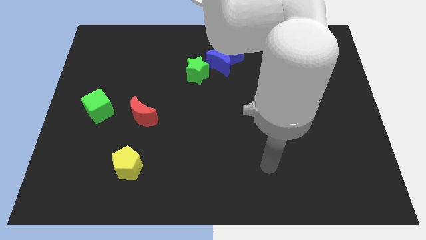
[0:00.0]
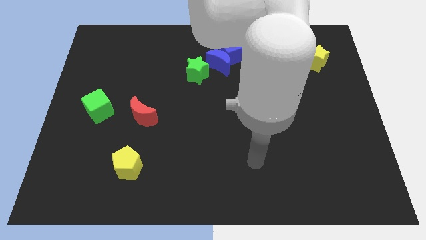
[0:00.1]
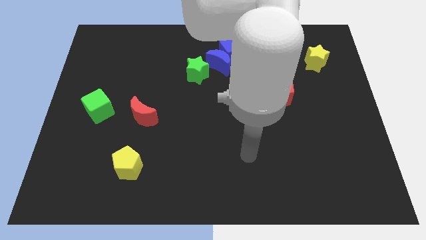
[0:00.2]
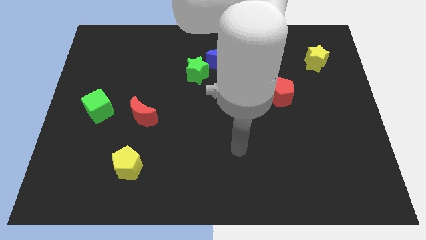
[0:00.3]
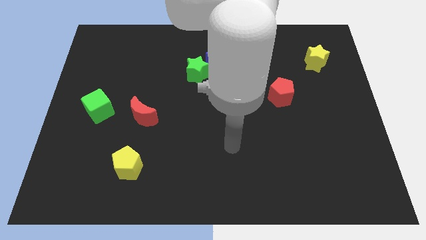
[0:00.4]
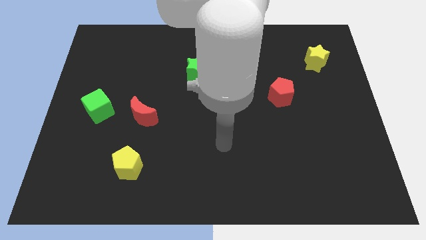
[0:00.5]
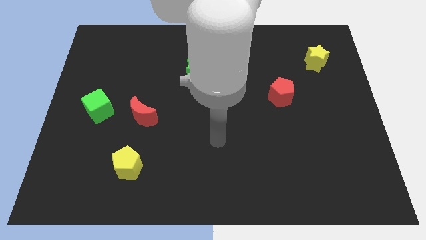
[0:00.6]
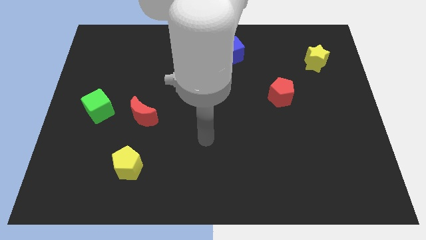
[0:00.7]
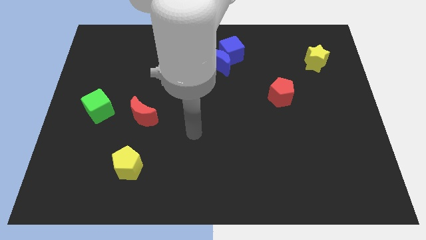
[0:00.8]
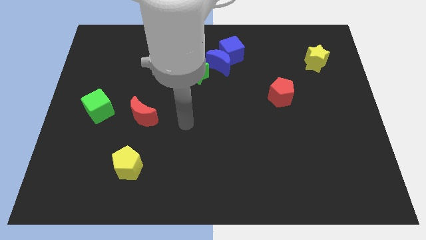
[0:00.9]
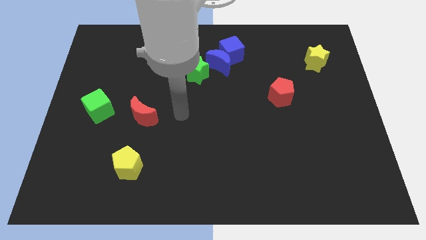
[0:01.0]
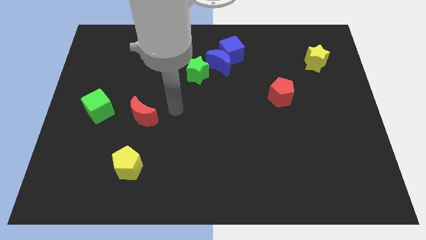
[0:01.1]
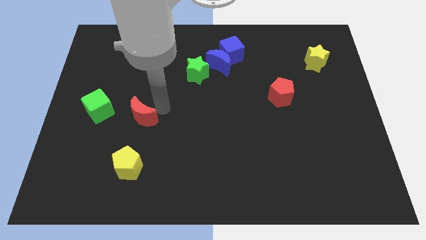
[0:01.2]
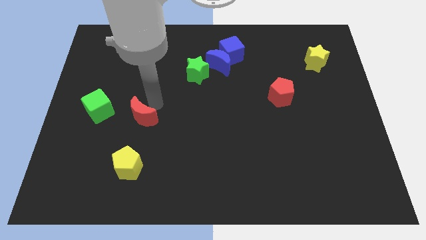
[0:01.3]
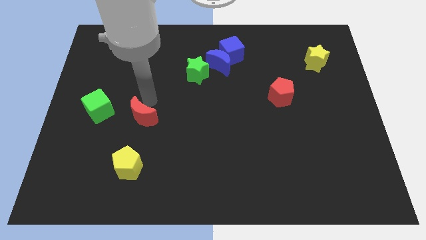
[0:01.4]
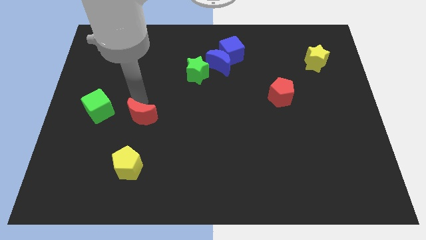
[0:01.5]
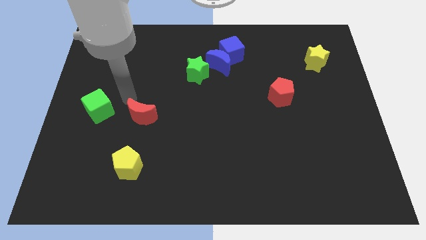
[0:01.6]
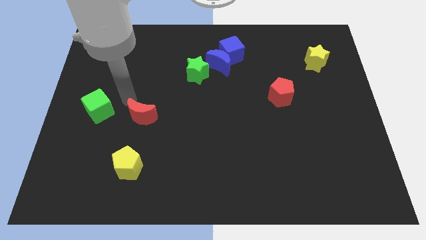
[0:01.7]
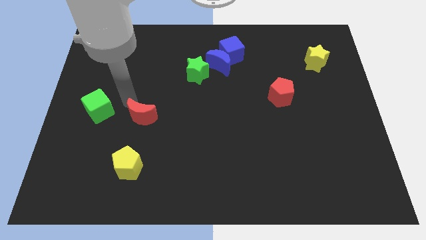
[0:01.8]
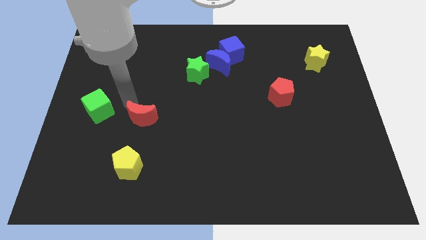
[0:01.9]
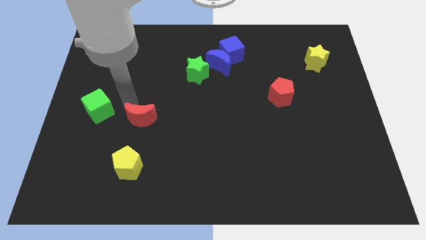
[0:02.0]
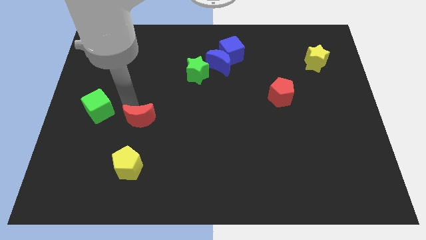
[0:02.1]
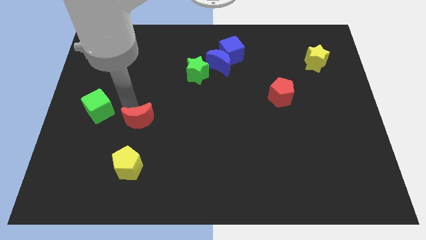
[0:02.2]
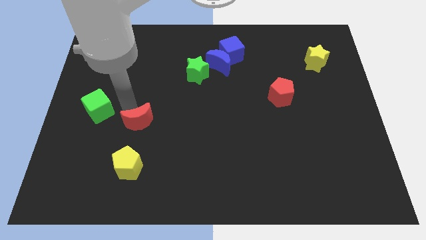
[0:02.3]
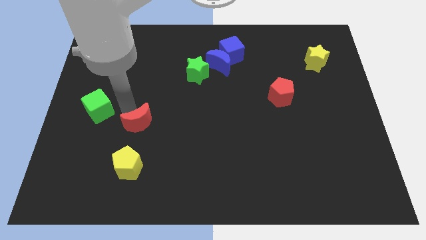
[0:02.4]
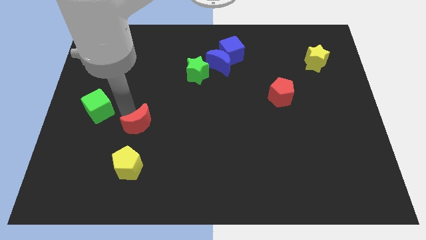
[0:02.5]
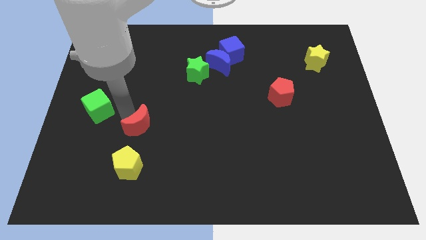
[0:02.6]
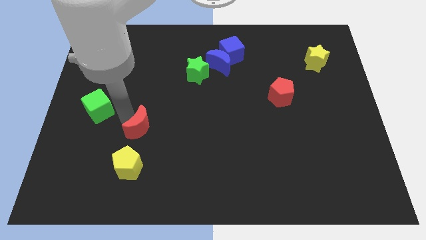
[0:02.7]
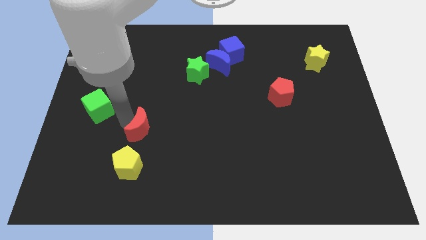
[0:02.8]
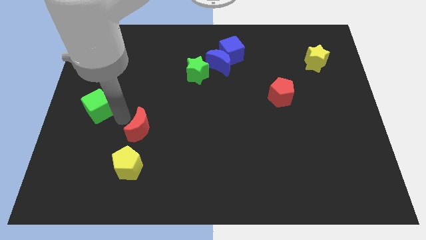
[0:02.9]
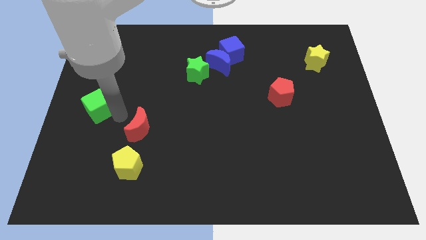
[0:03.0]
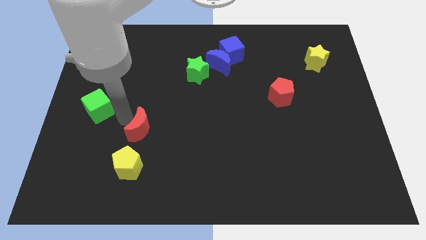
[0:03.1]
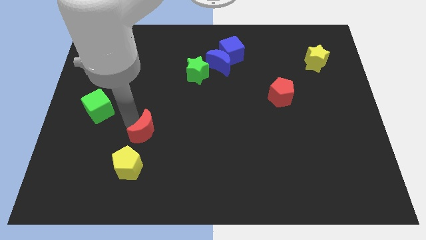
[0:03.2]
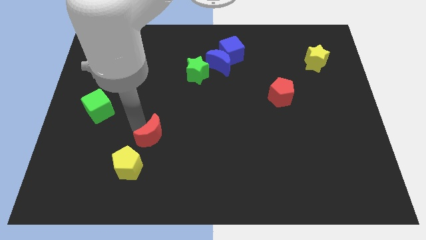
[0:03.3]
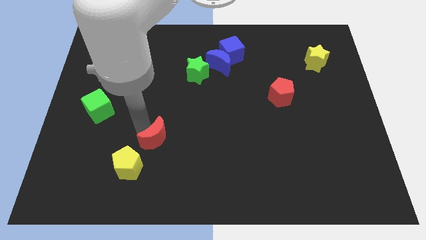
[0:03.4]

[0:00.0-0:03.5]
push the red moon down and right diagonally a bit

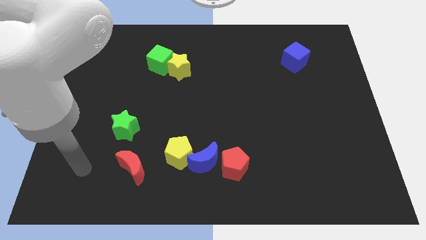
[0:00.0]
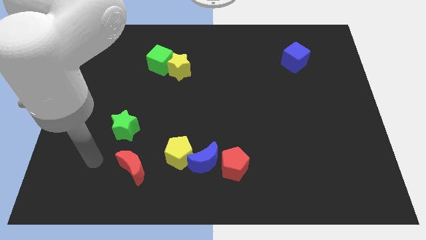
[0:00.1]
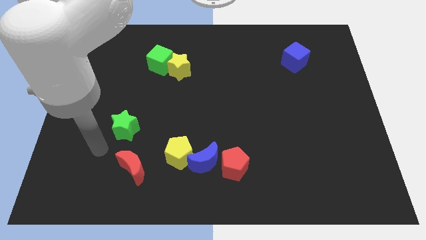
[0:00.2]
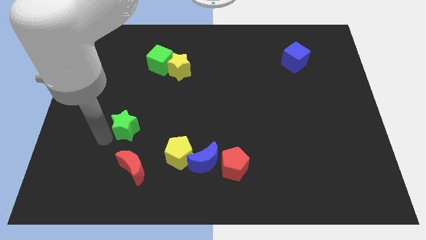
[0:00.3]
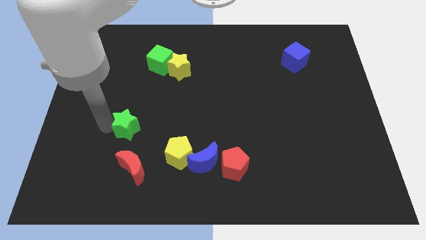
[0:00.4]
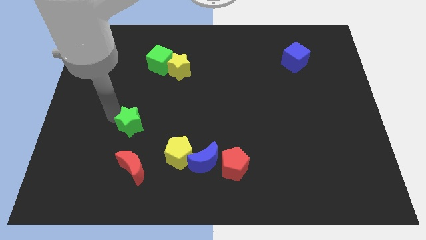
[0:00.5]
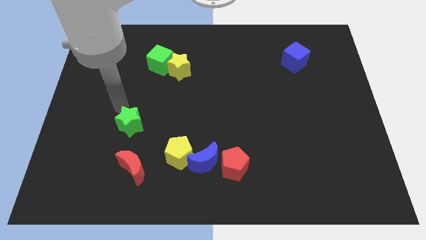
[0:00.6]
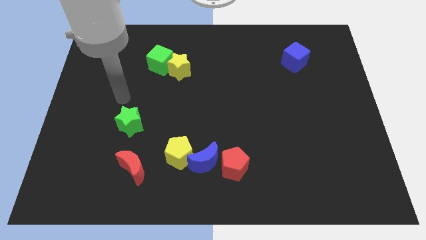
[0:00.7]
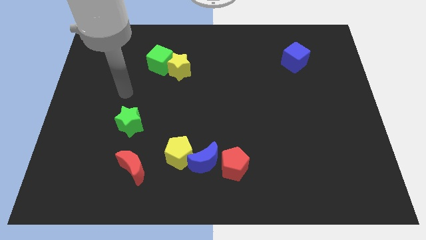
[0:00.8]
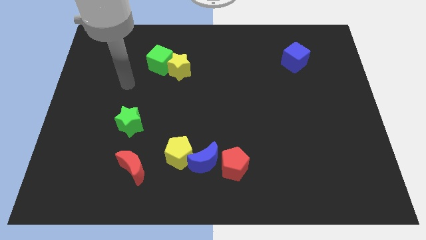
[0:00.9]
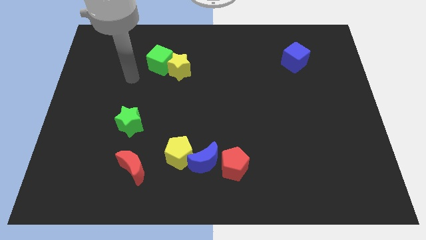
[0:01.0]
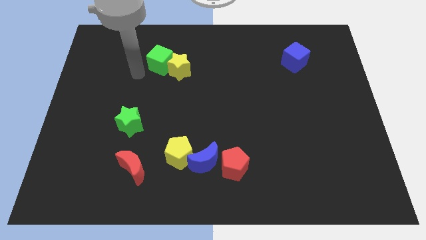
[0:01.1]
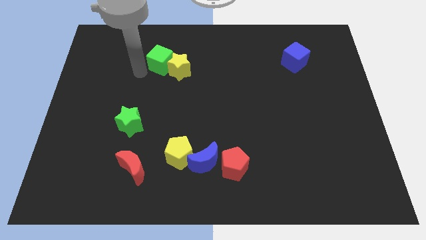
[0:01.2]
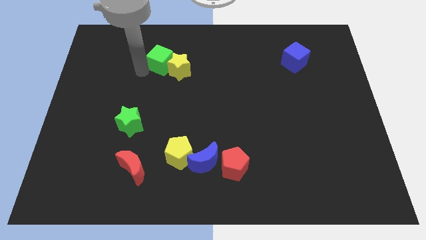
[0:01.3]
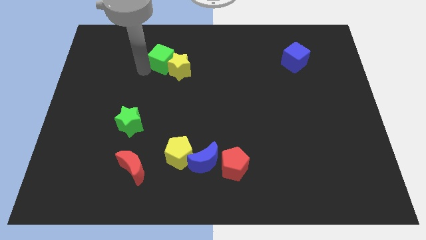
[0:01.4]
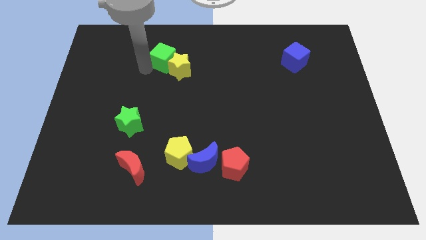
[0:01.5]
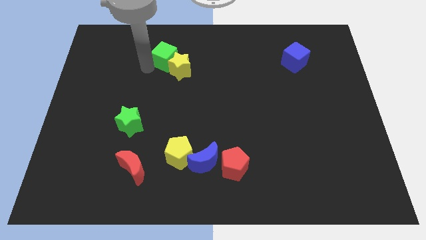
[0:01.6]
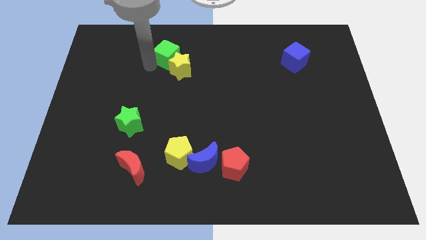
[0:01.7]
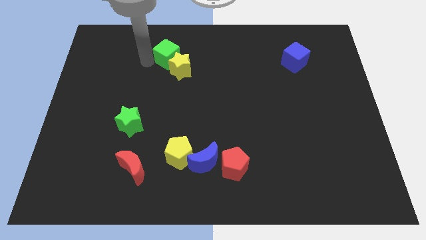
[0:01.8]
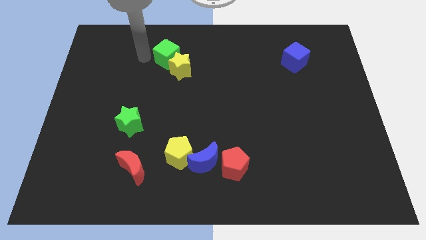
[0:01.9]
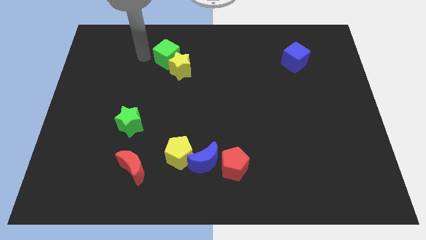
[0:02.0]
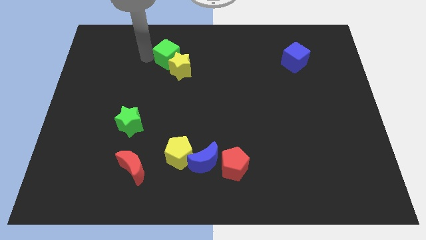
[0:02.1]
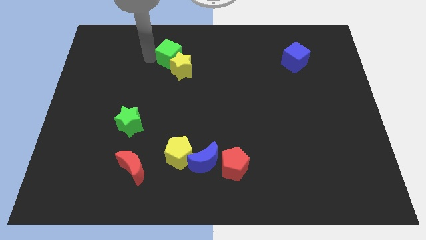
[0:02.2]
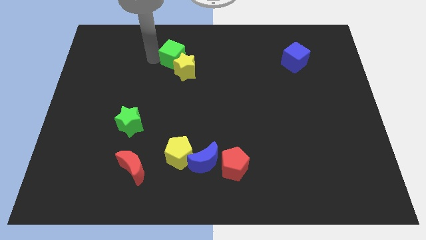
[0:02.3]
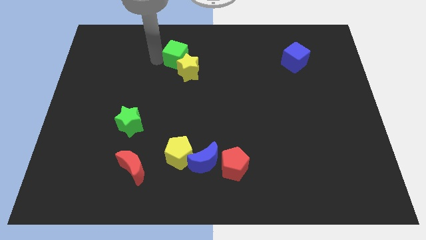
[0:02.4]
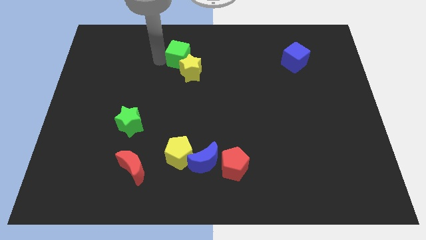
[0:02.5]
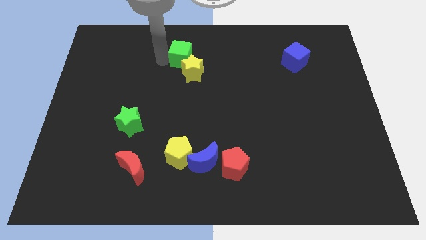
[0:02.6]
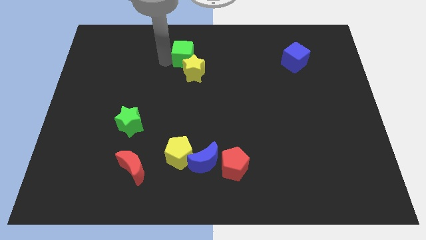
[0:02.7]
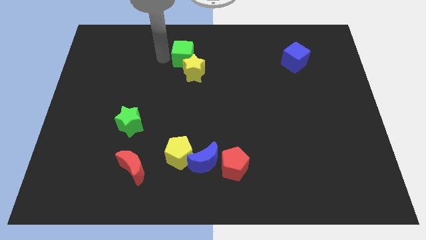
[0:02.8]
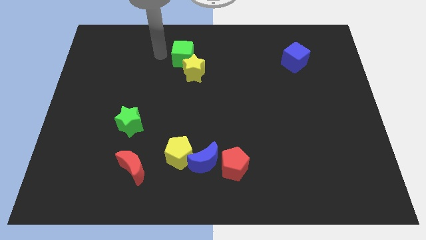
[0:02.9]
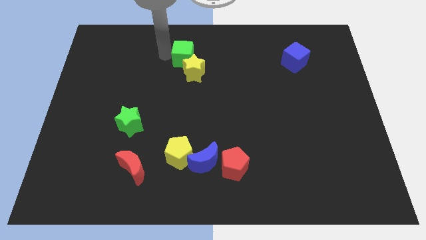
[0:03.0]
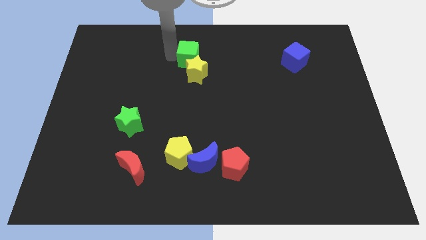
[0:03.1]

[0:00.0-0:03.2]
slide the green cube to the right a little

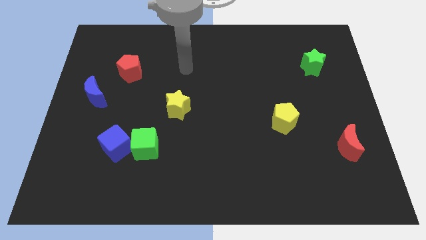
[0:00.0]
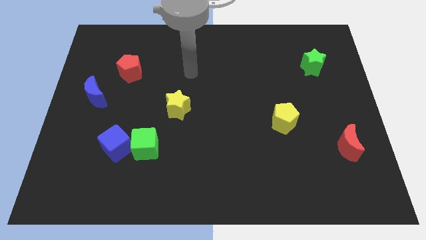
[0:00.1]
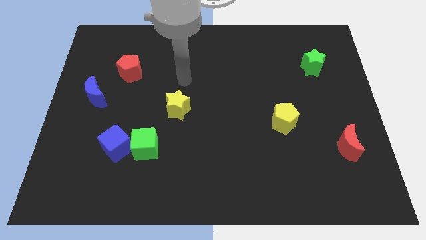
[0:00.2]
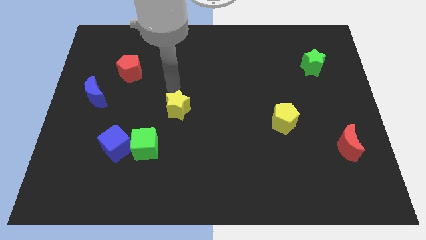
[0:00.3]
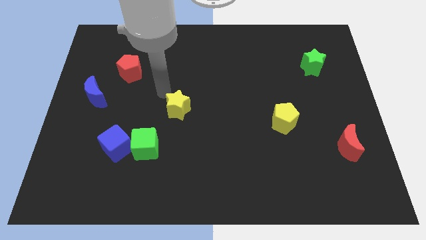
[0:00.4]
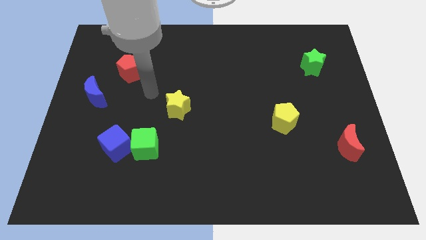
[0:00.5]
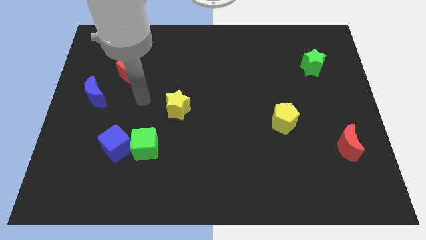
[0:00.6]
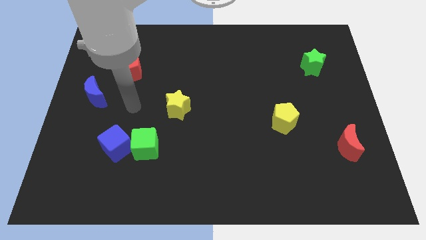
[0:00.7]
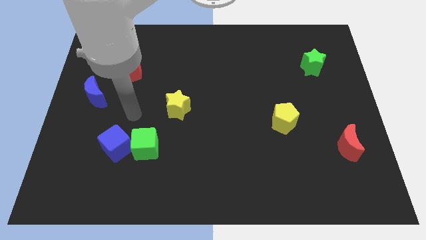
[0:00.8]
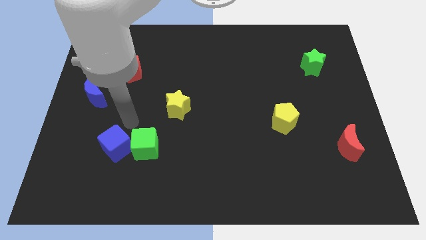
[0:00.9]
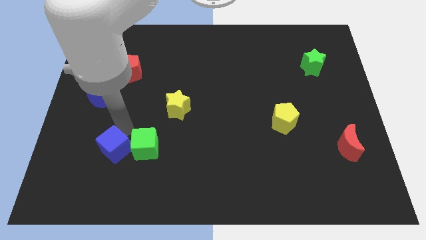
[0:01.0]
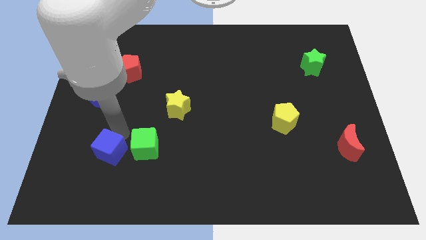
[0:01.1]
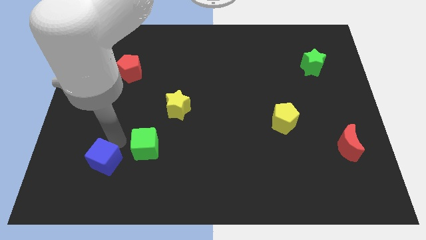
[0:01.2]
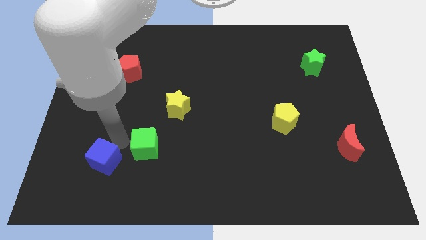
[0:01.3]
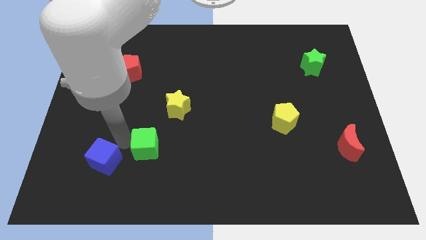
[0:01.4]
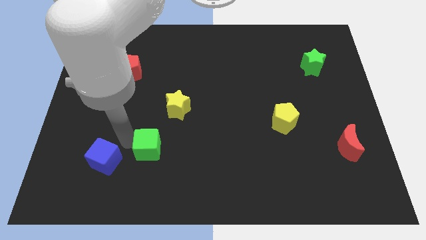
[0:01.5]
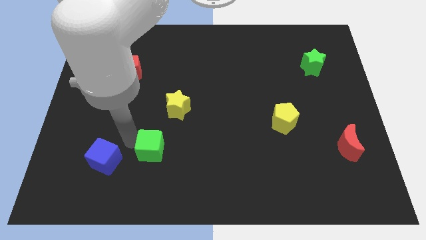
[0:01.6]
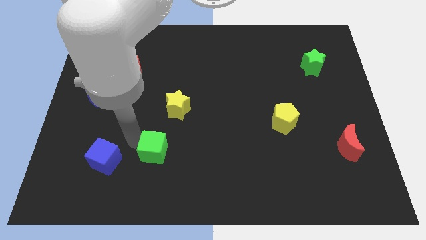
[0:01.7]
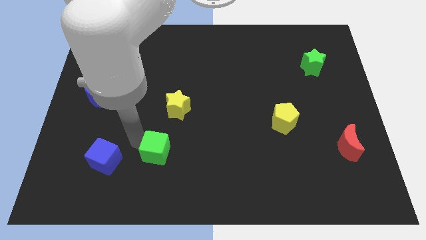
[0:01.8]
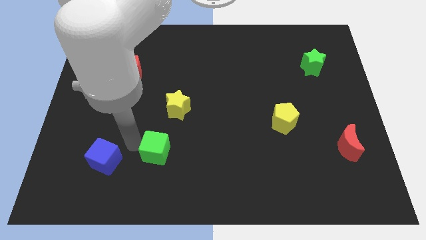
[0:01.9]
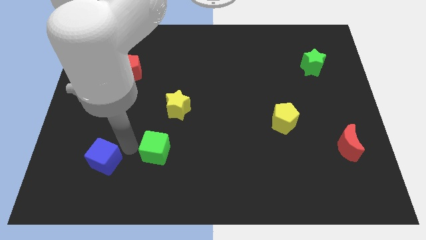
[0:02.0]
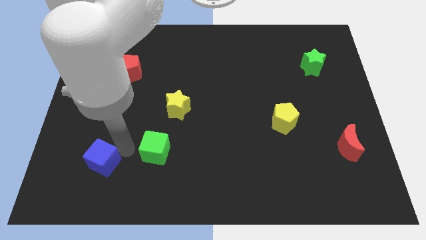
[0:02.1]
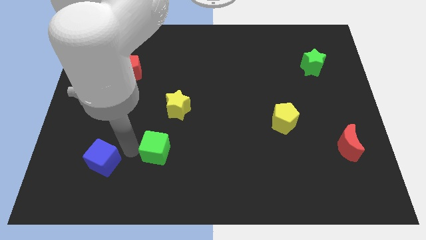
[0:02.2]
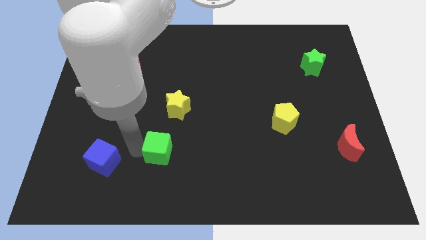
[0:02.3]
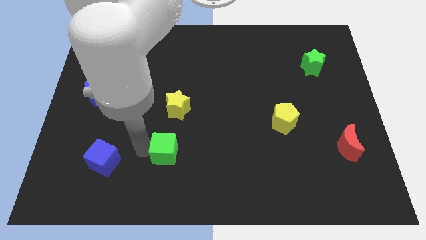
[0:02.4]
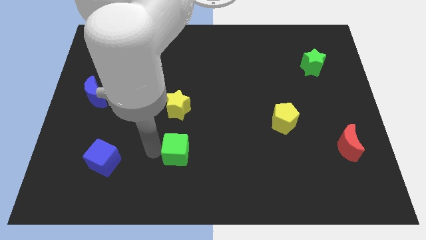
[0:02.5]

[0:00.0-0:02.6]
slide the green cube a little right
